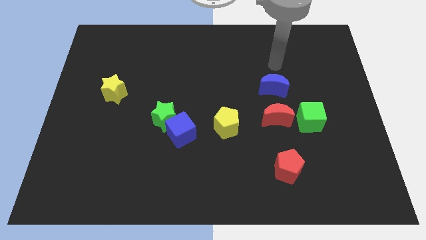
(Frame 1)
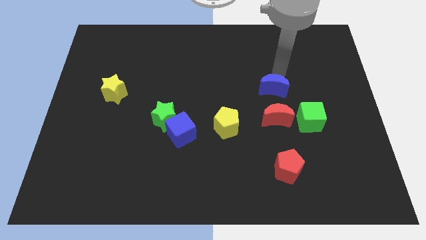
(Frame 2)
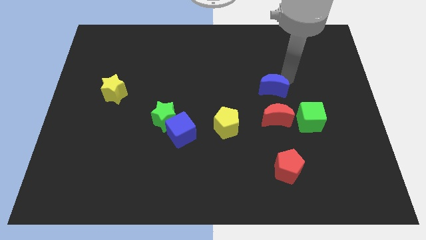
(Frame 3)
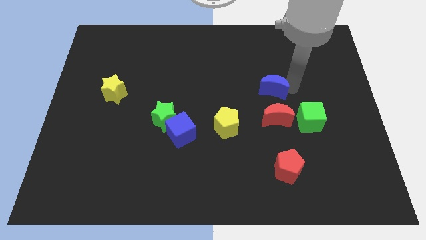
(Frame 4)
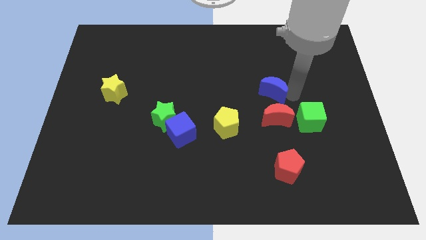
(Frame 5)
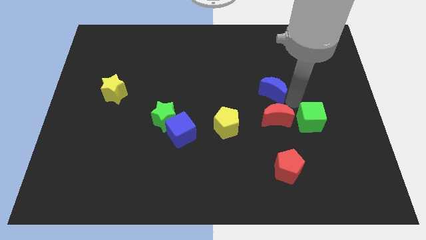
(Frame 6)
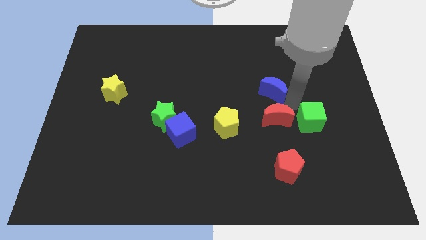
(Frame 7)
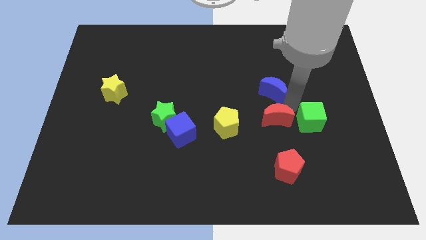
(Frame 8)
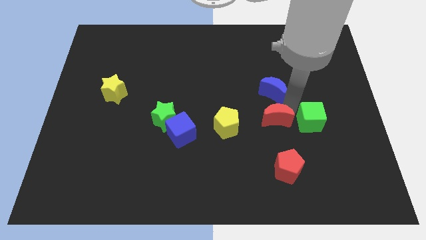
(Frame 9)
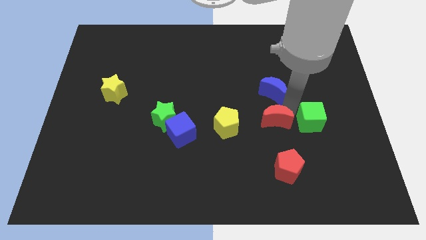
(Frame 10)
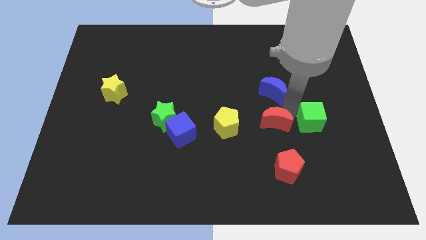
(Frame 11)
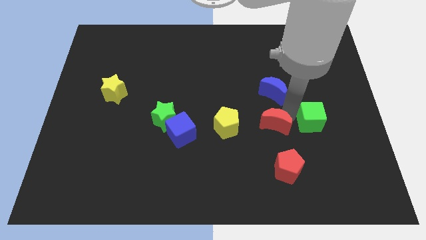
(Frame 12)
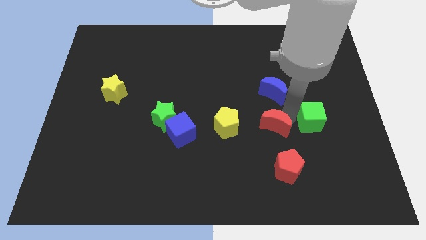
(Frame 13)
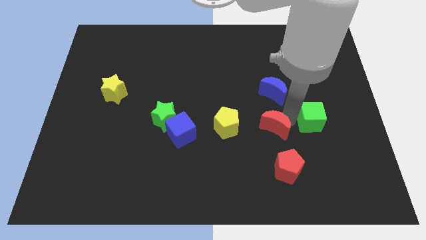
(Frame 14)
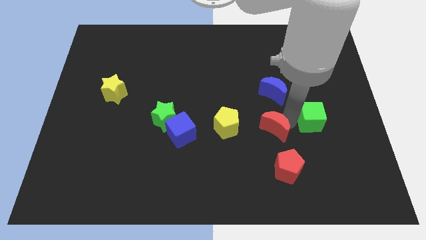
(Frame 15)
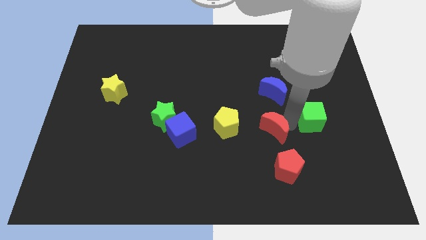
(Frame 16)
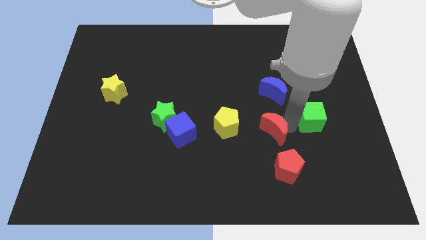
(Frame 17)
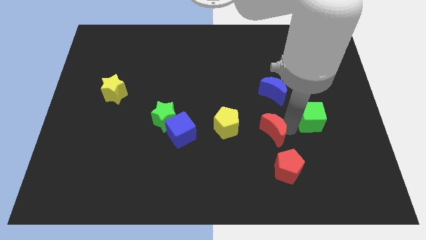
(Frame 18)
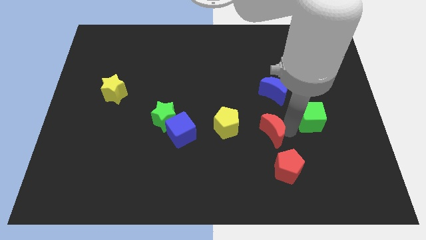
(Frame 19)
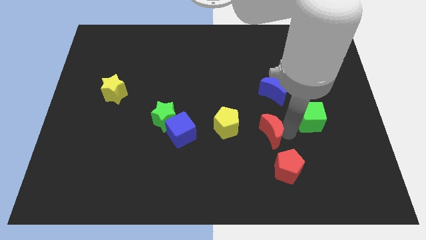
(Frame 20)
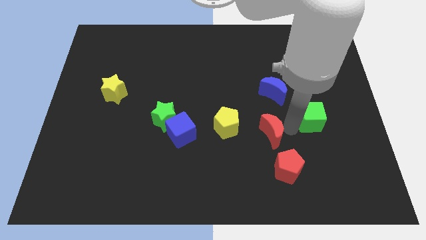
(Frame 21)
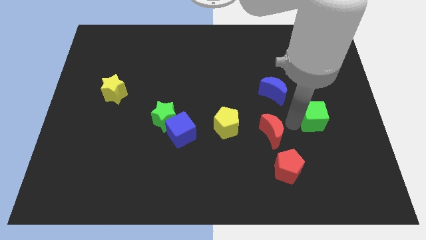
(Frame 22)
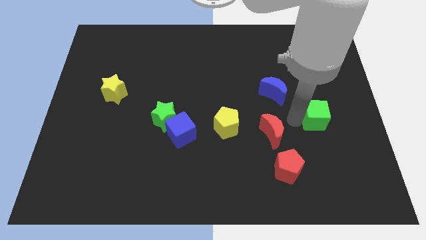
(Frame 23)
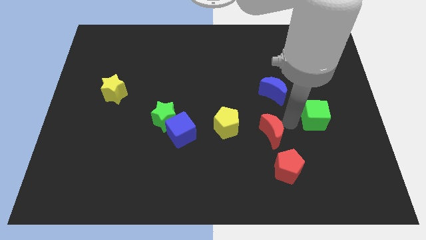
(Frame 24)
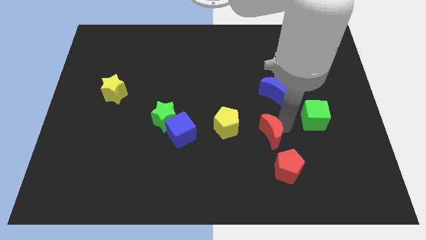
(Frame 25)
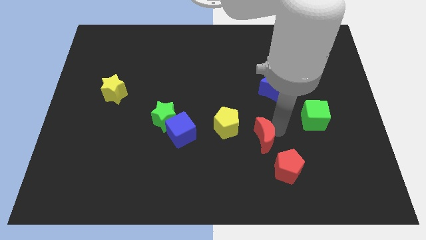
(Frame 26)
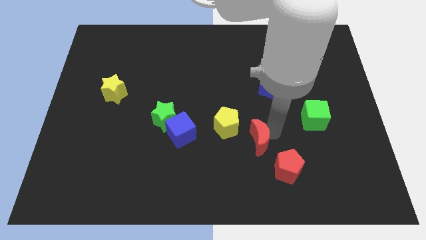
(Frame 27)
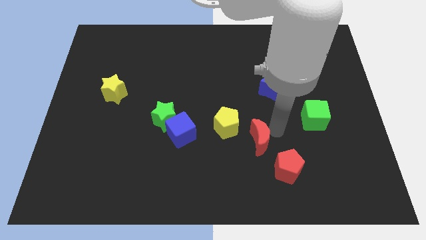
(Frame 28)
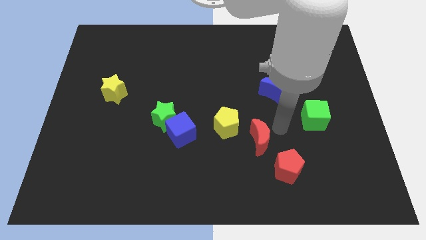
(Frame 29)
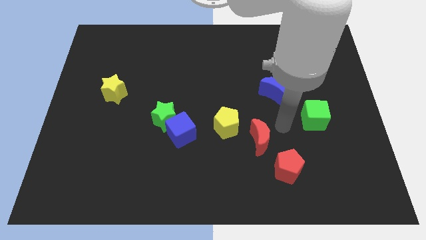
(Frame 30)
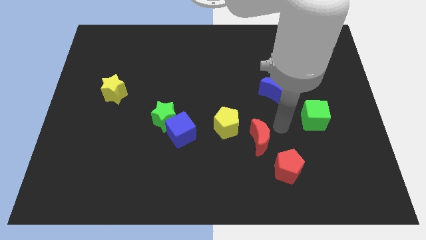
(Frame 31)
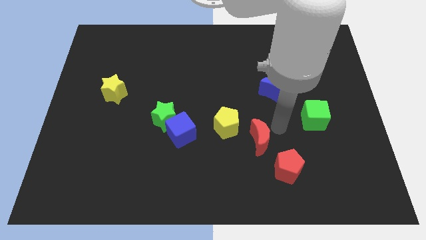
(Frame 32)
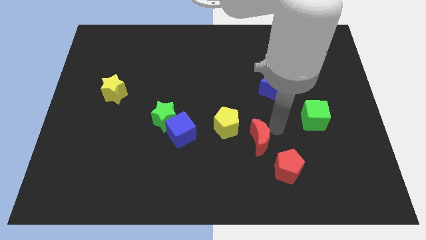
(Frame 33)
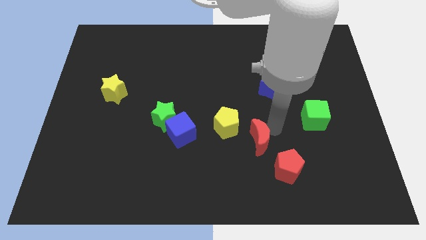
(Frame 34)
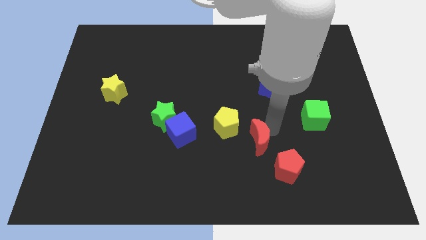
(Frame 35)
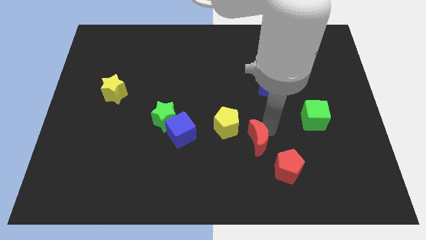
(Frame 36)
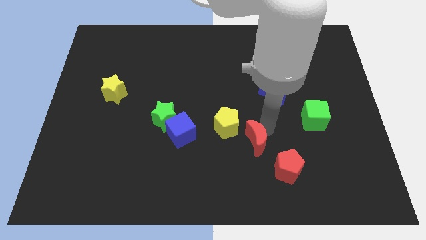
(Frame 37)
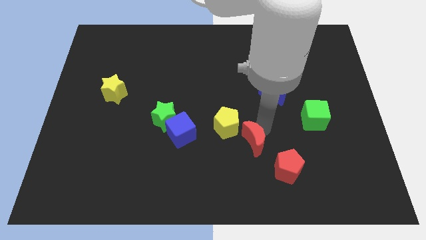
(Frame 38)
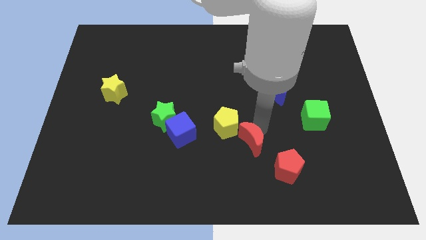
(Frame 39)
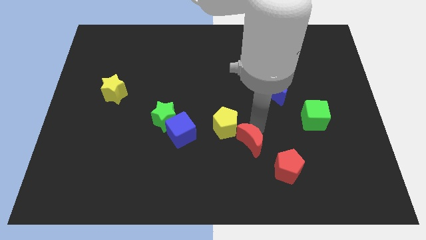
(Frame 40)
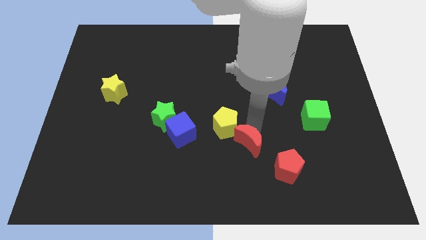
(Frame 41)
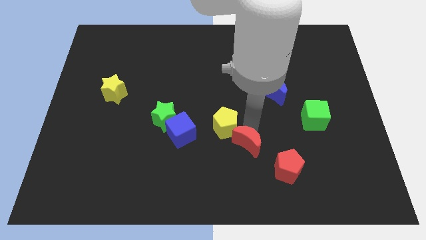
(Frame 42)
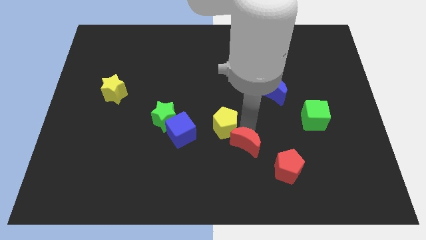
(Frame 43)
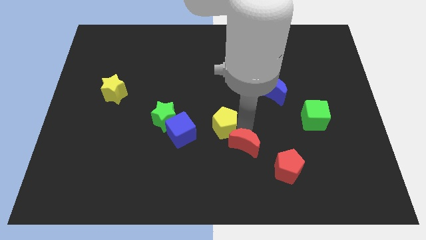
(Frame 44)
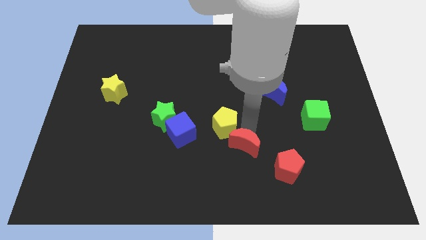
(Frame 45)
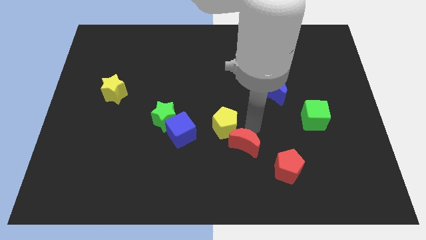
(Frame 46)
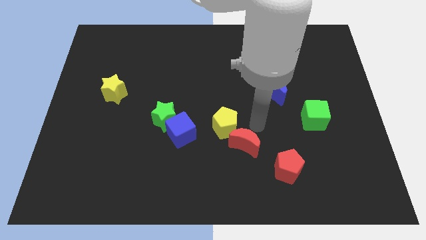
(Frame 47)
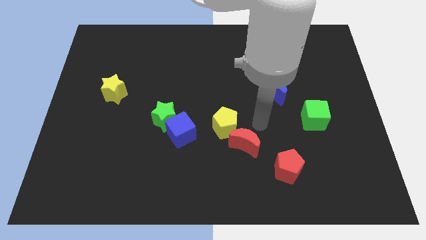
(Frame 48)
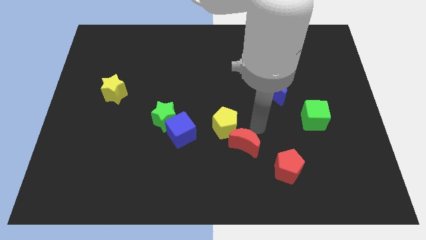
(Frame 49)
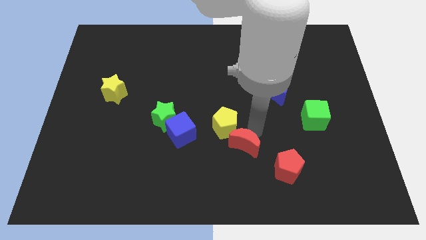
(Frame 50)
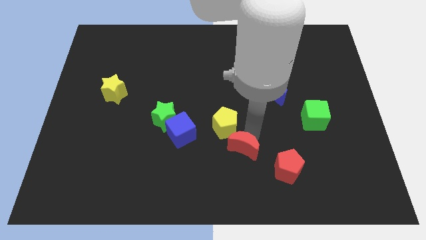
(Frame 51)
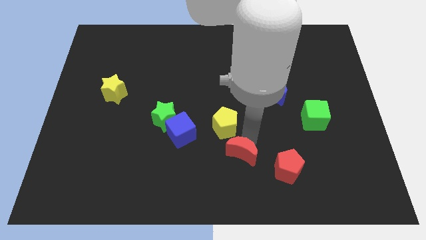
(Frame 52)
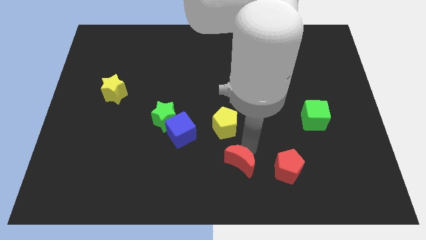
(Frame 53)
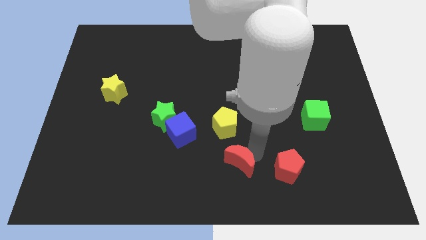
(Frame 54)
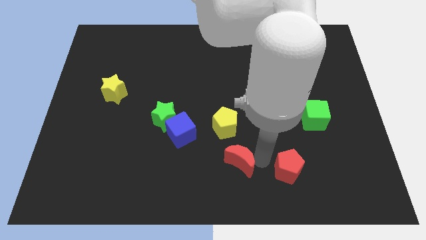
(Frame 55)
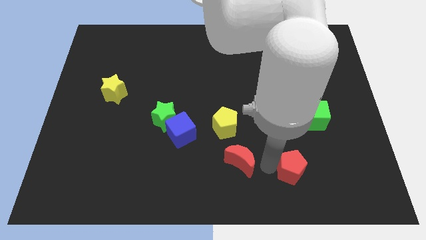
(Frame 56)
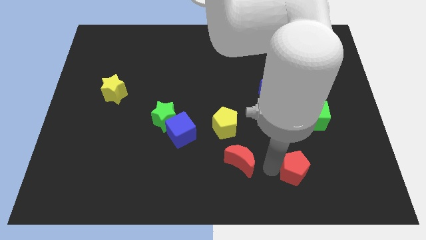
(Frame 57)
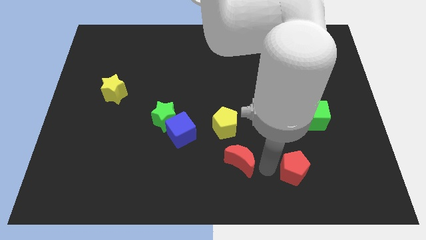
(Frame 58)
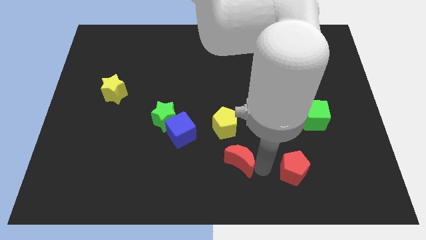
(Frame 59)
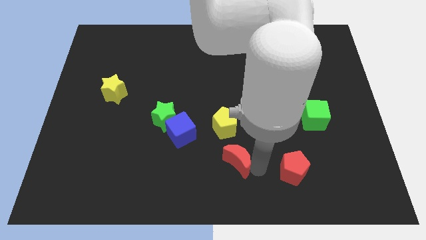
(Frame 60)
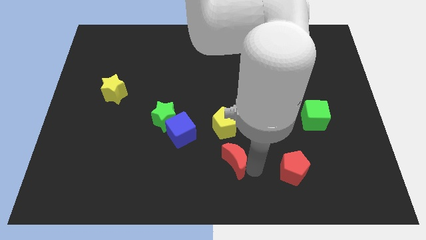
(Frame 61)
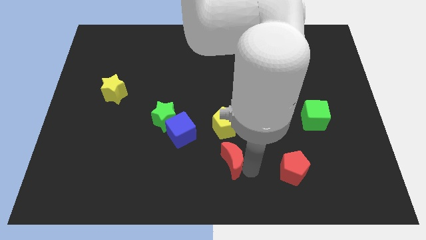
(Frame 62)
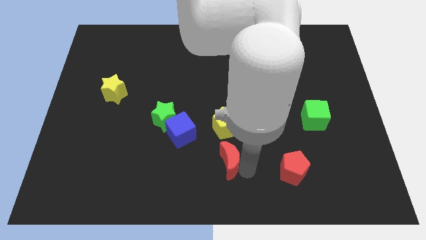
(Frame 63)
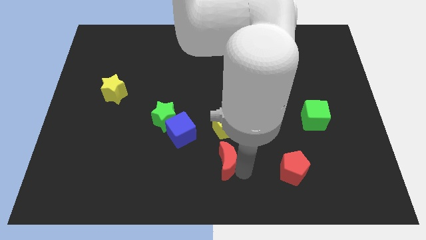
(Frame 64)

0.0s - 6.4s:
move the red moon to the bottom right side of the blue cube
